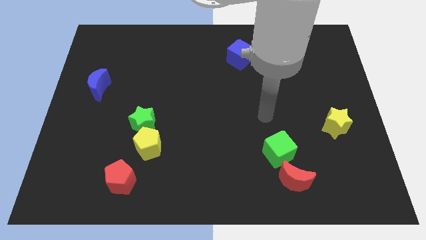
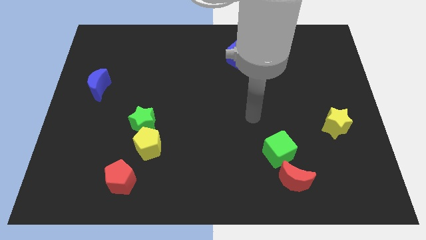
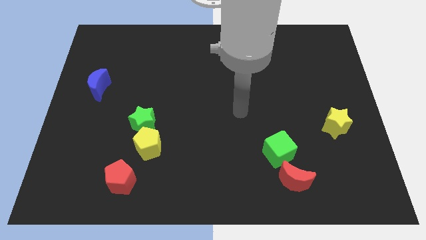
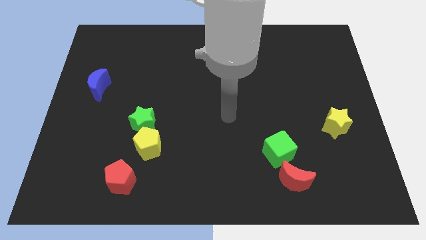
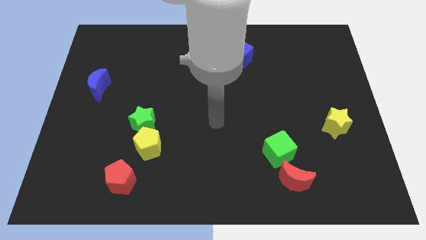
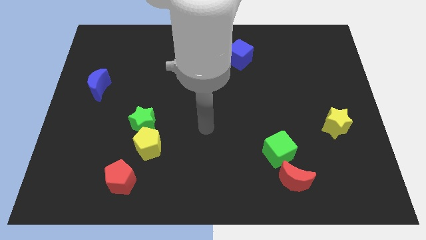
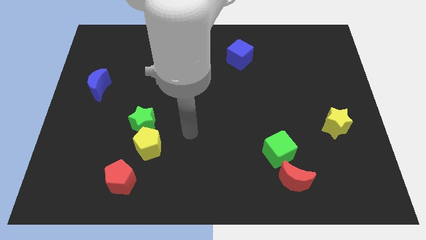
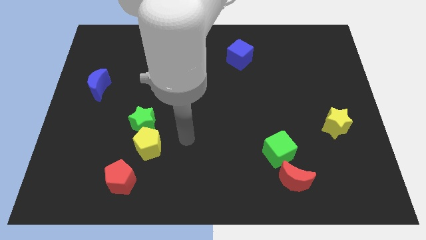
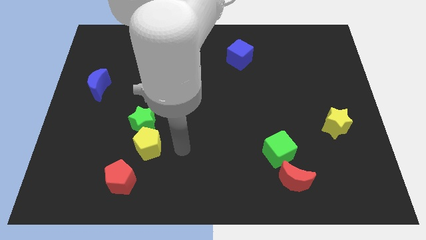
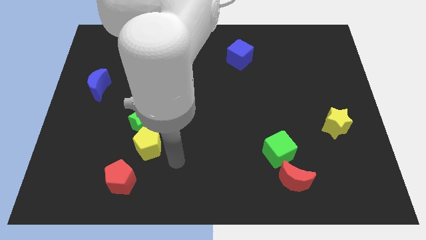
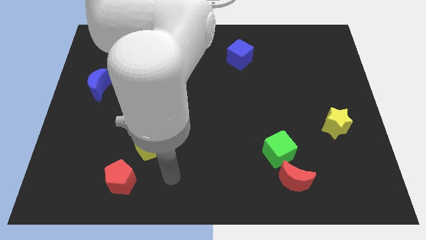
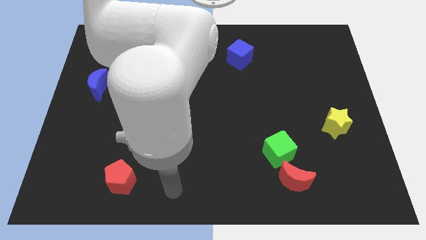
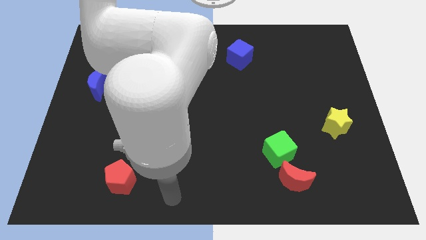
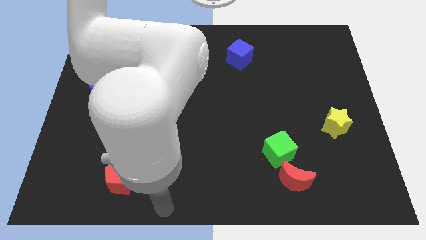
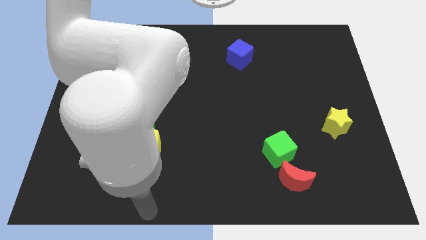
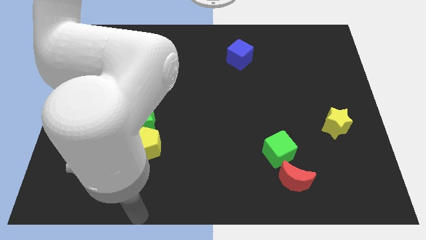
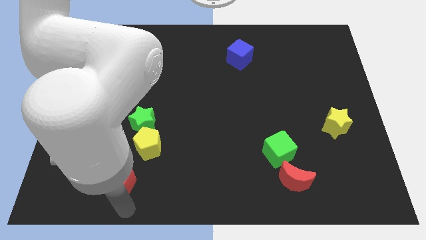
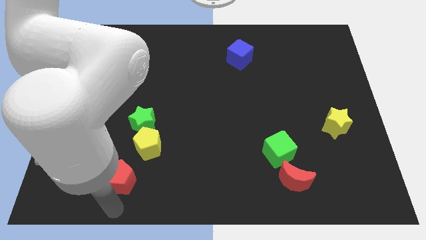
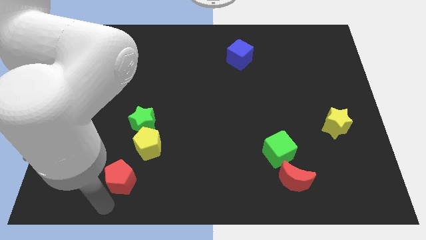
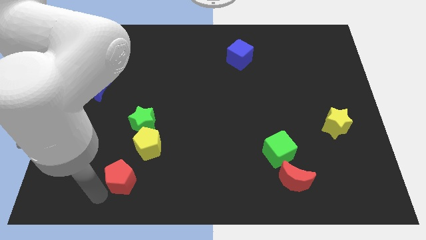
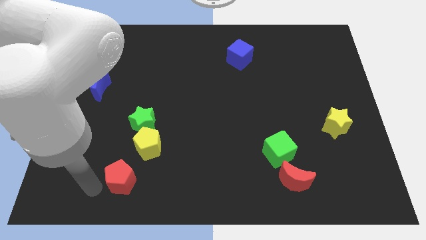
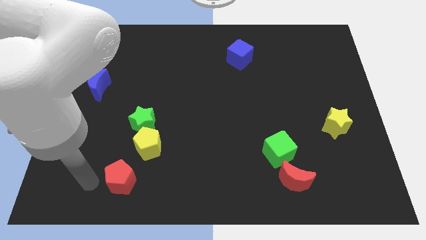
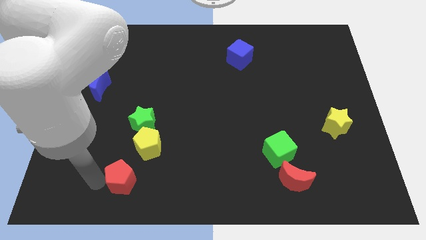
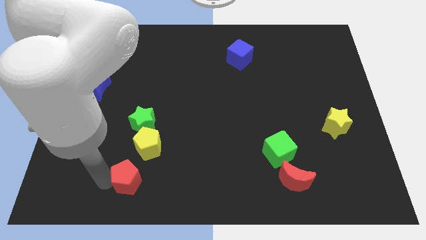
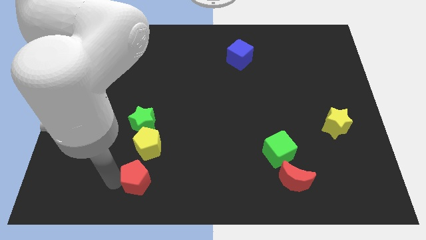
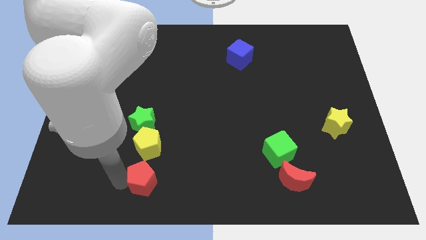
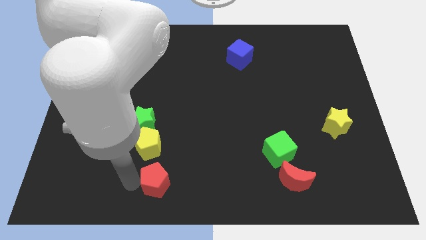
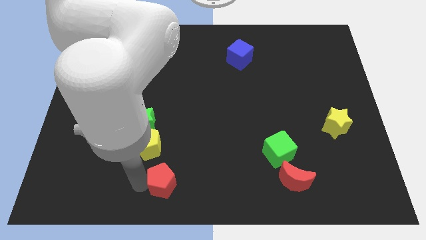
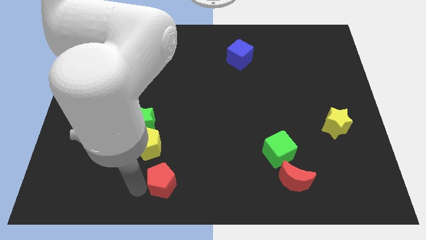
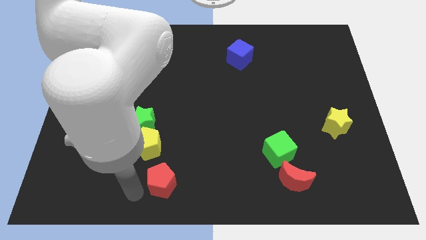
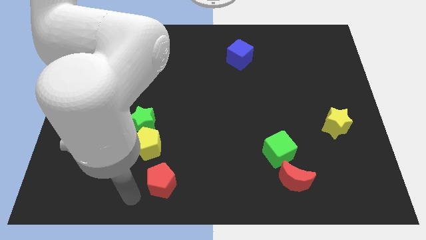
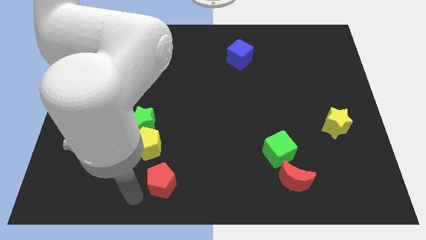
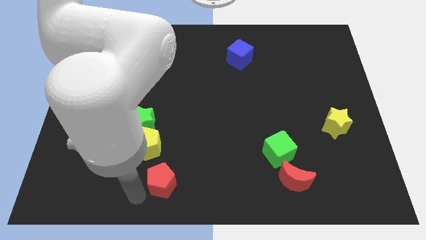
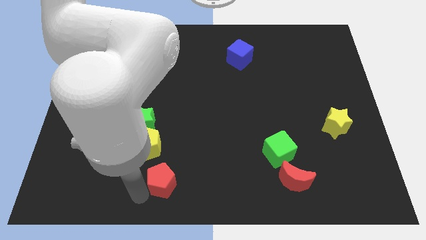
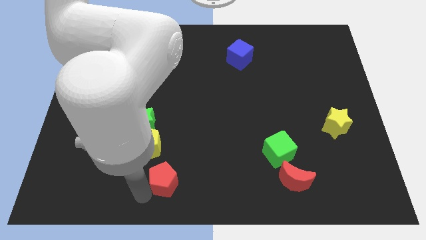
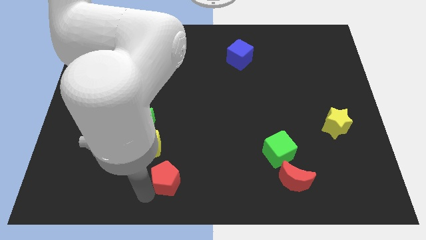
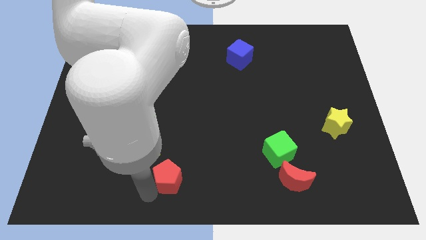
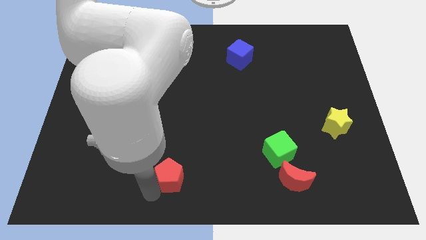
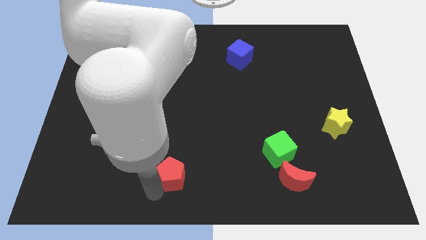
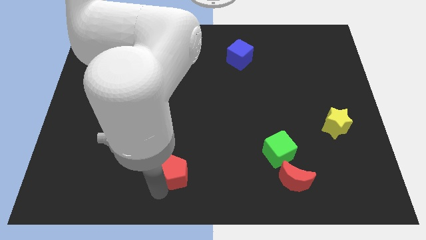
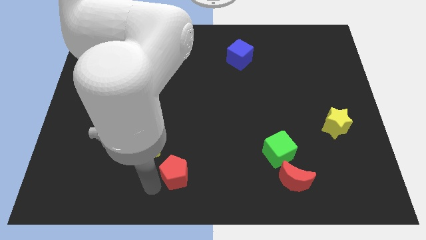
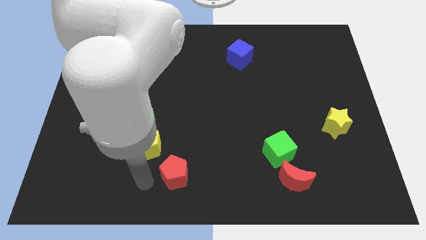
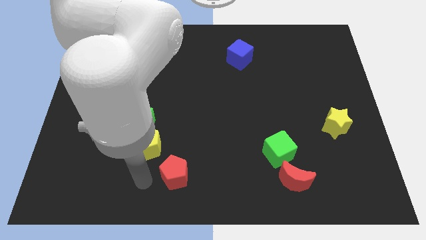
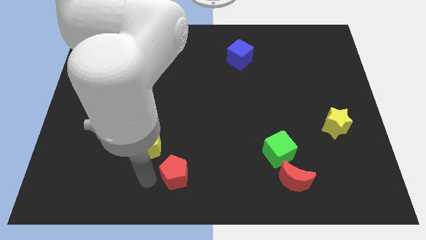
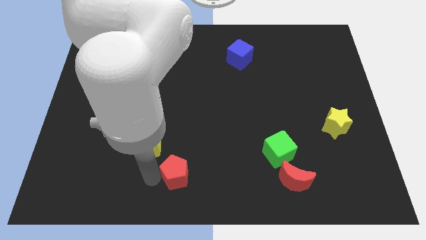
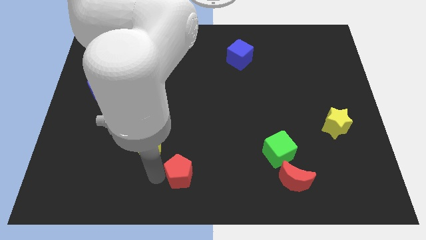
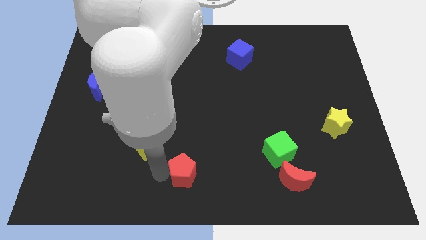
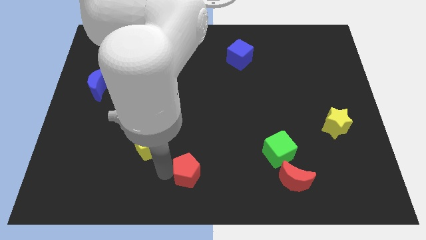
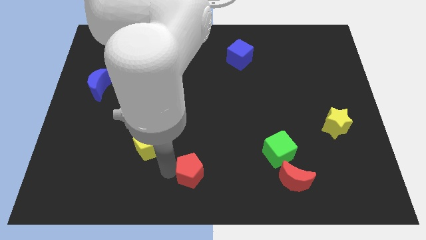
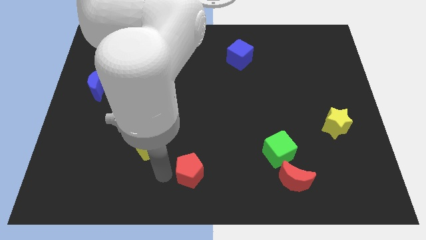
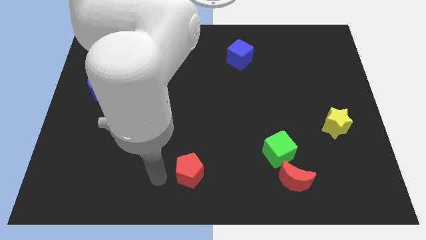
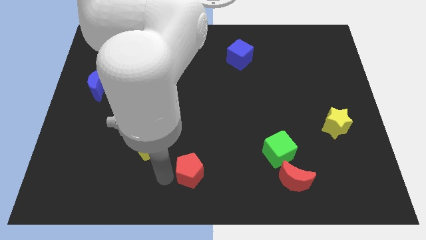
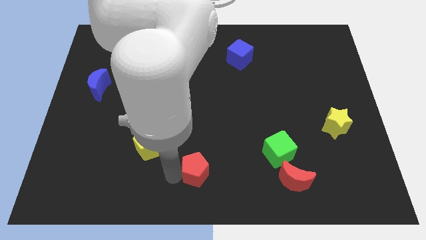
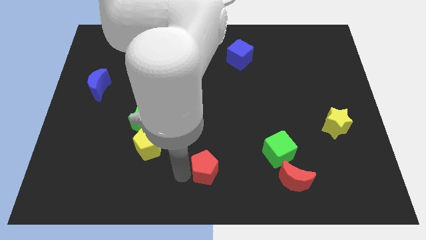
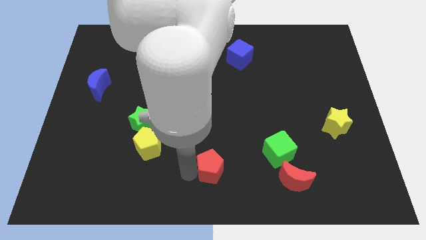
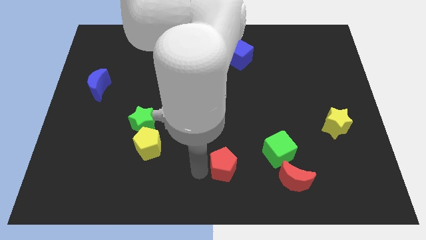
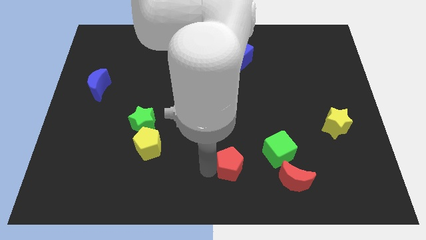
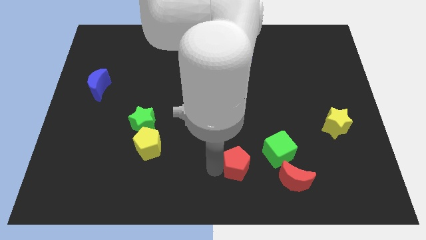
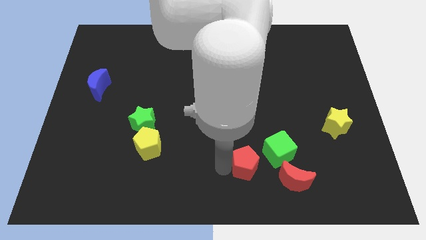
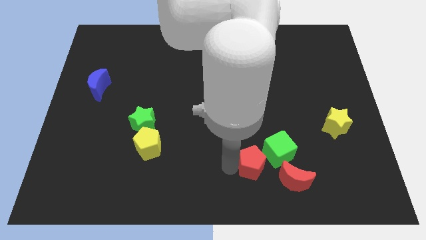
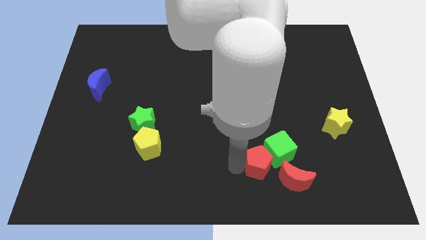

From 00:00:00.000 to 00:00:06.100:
move the red pentagon next to the green cube

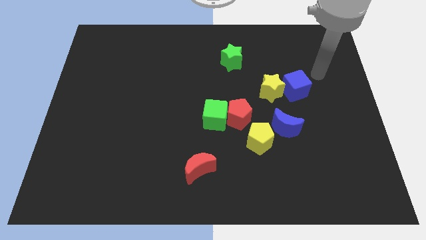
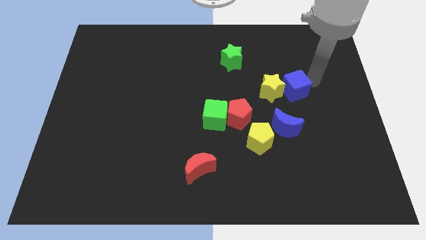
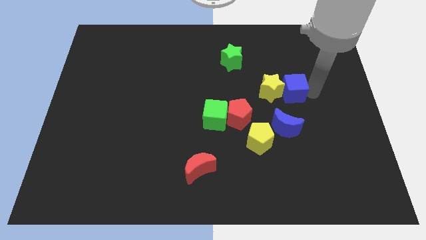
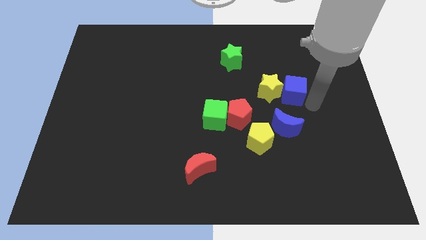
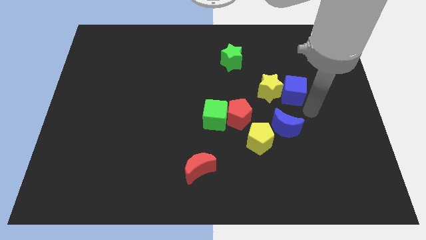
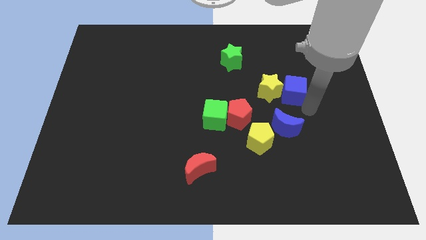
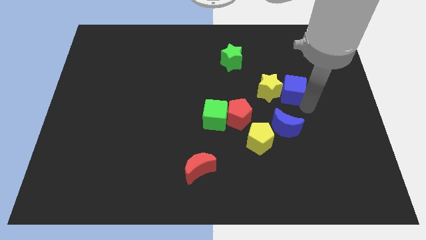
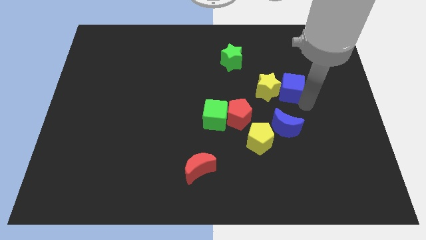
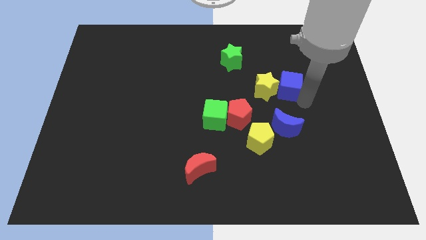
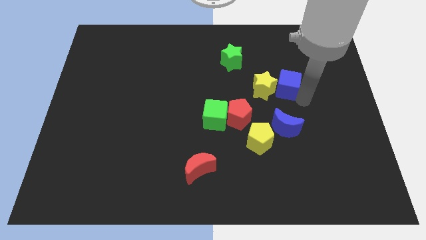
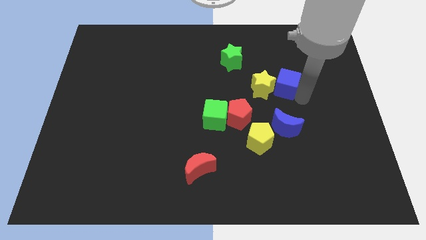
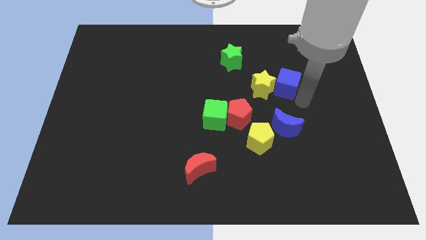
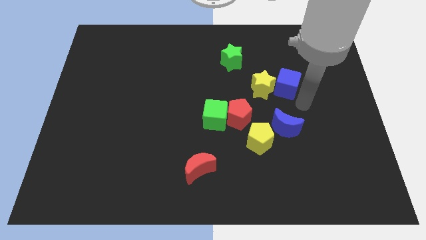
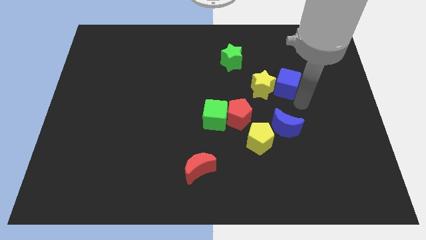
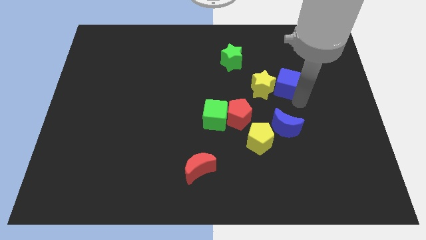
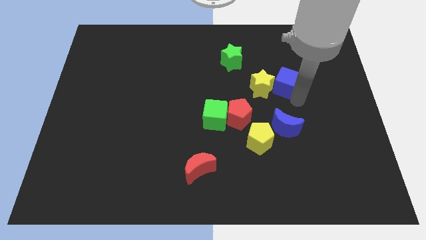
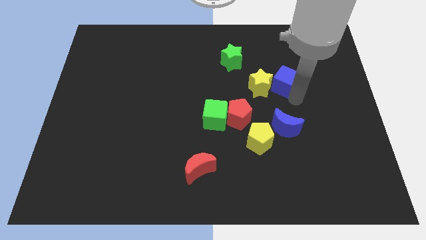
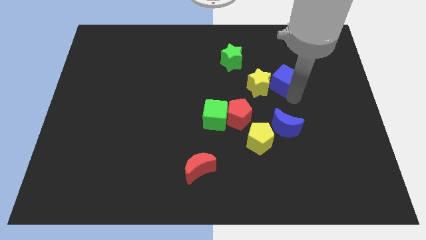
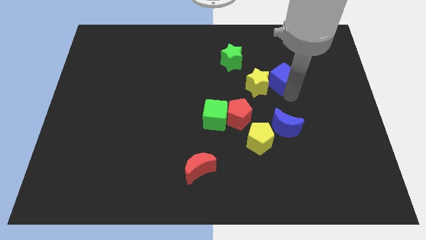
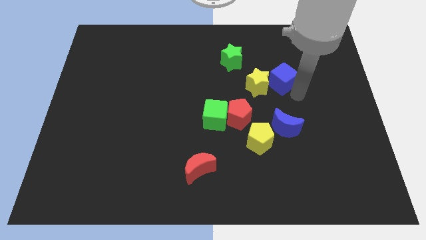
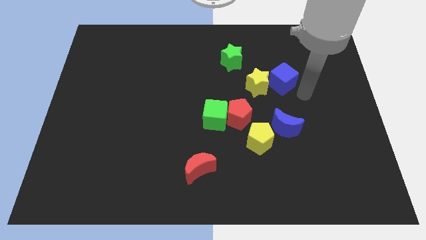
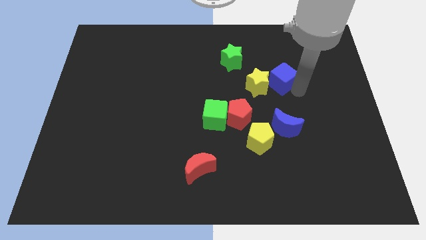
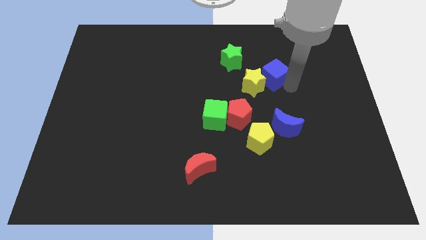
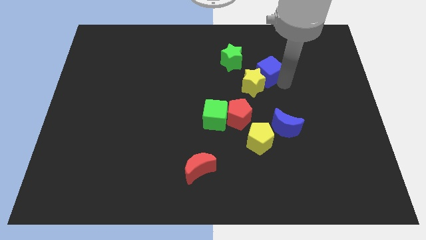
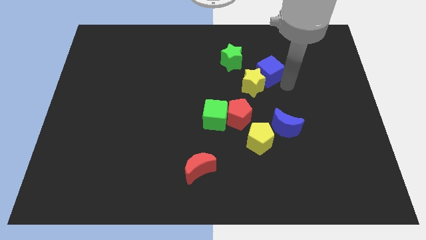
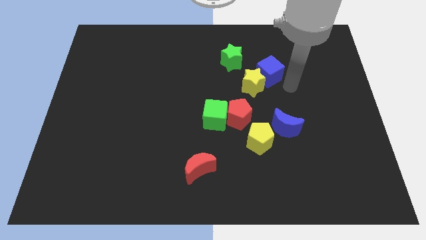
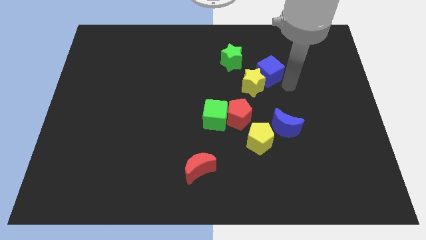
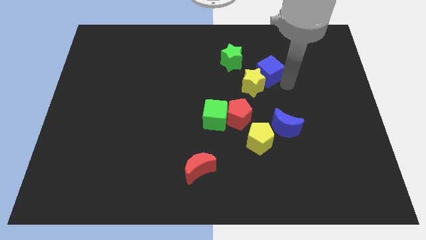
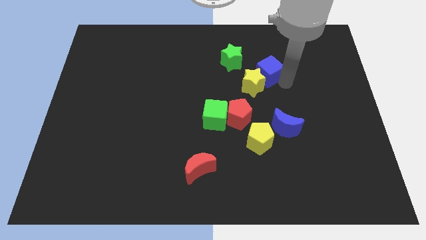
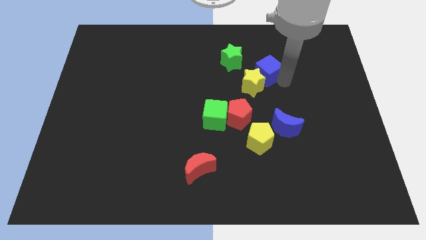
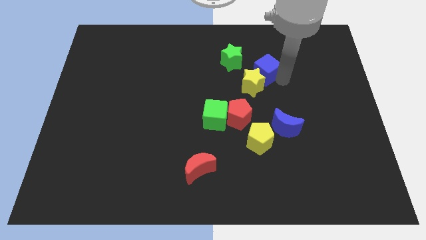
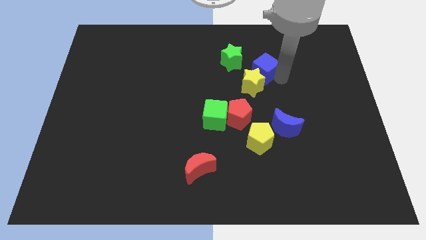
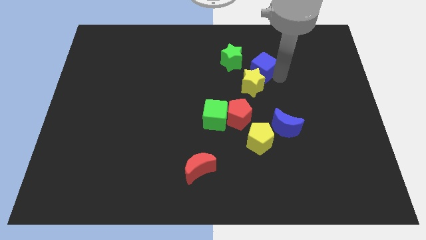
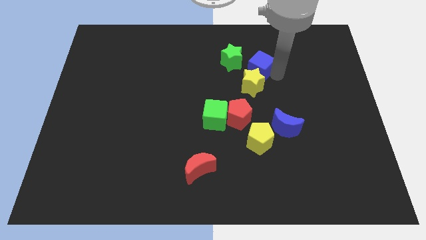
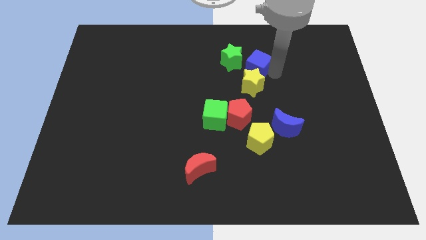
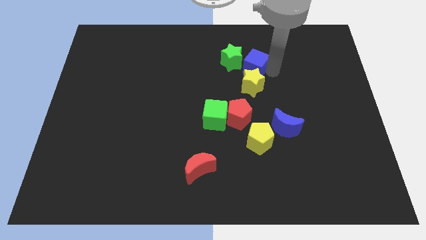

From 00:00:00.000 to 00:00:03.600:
slide the blue cube to the green star
